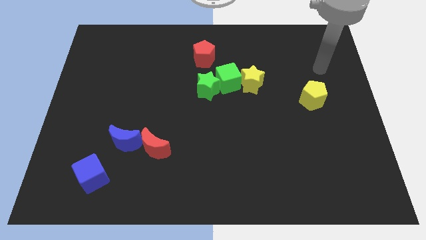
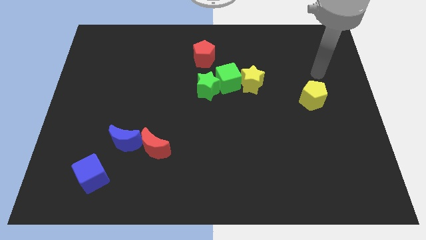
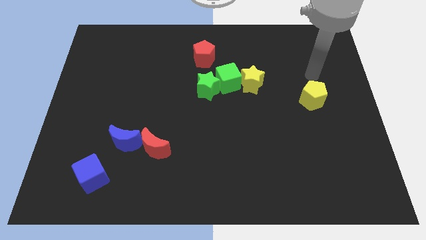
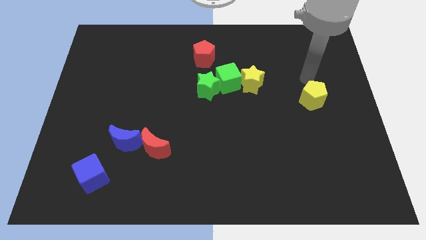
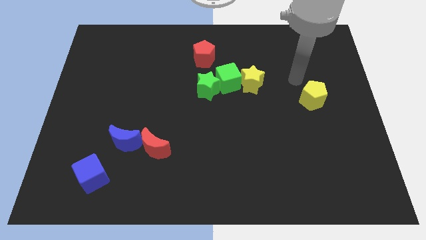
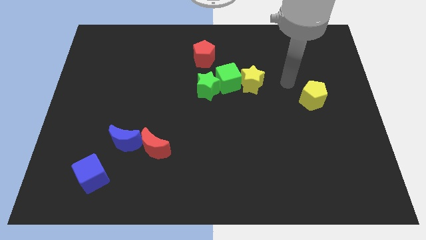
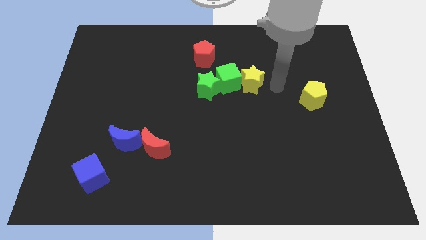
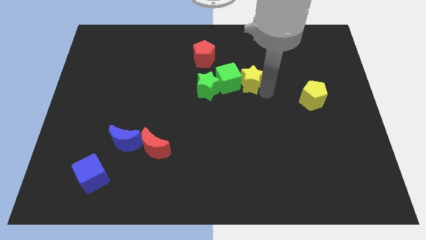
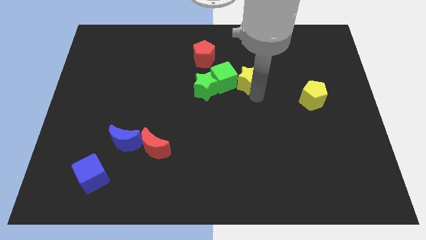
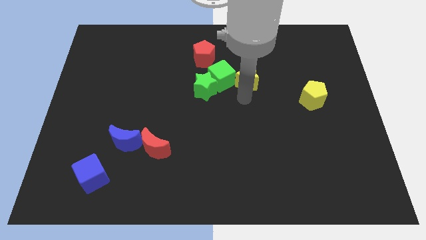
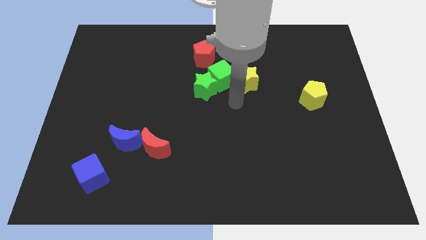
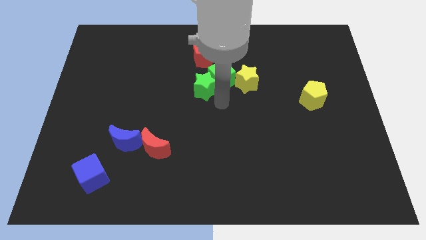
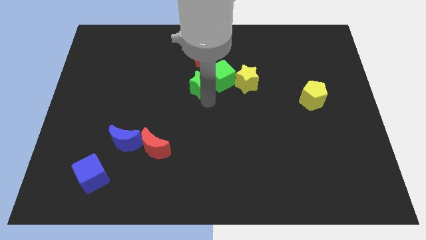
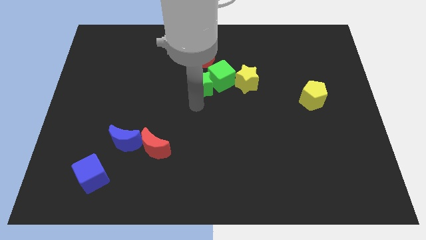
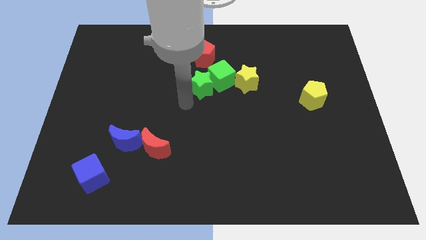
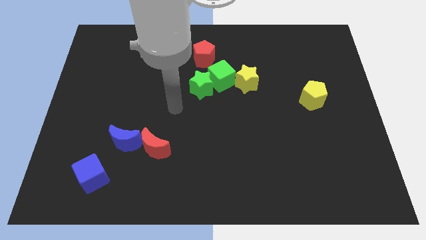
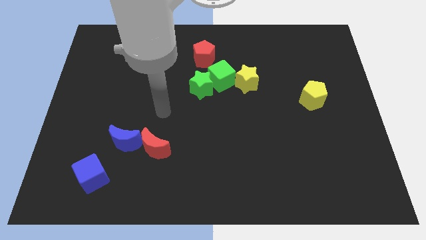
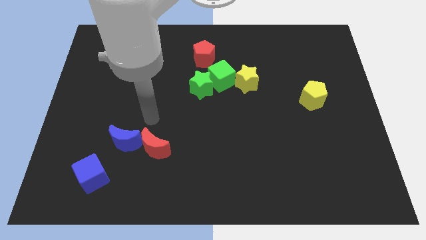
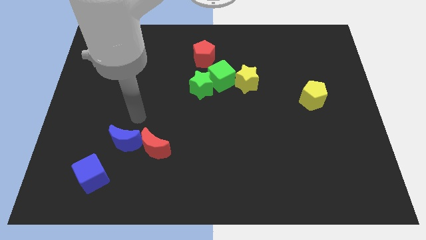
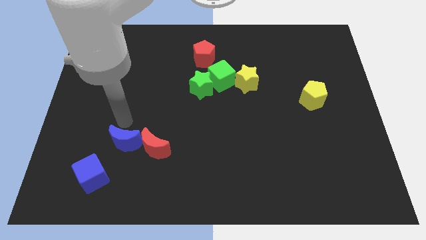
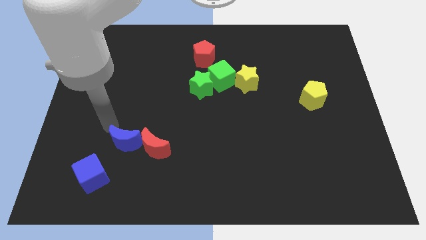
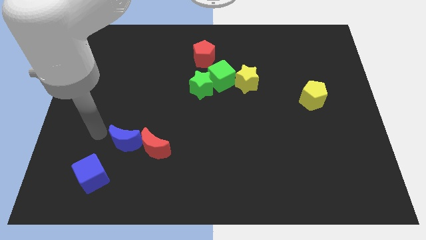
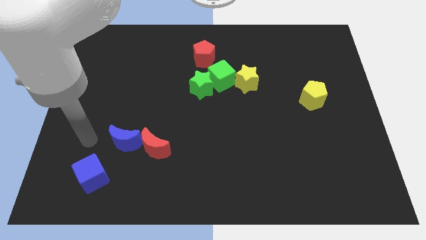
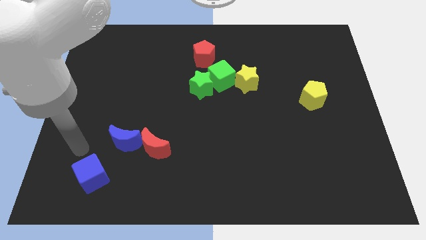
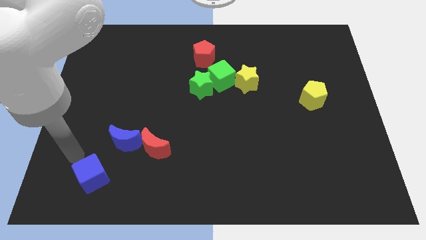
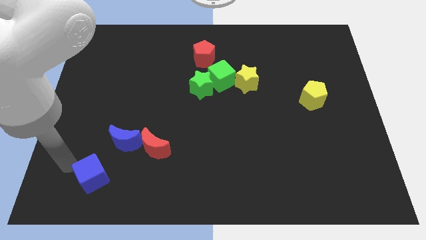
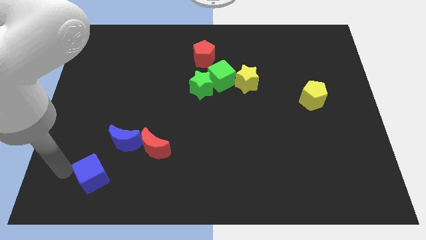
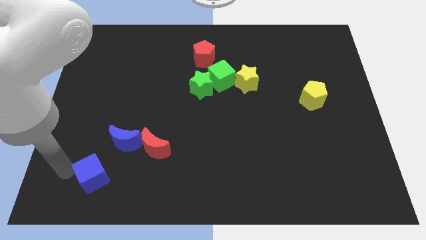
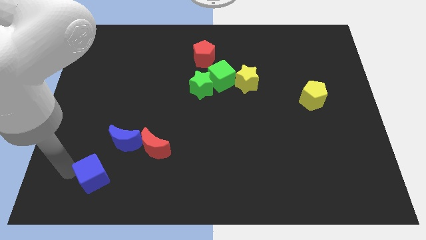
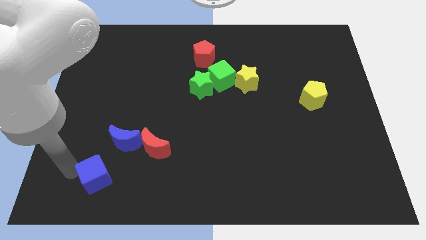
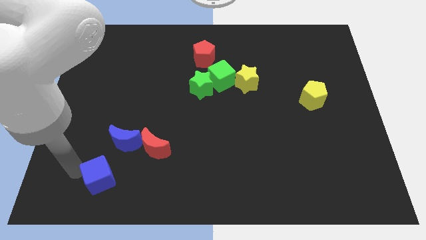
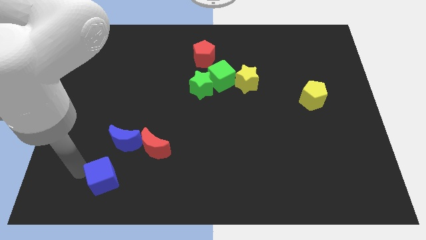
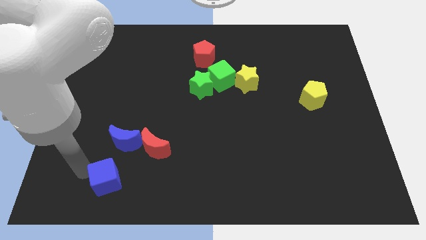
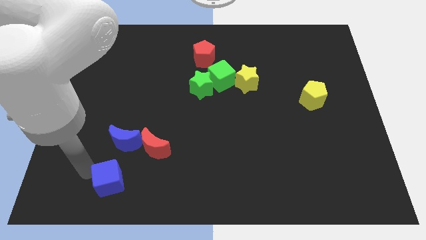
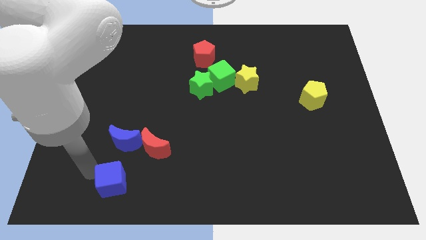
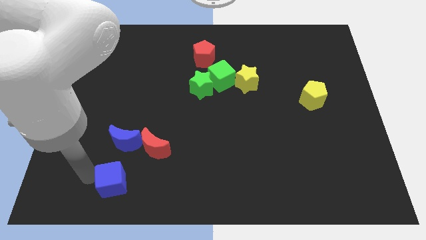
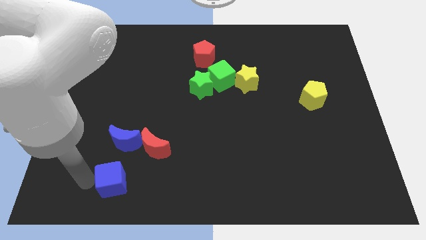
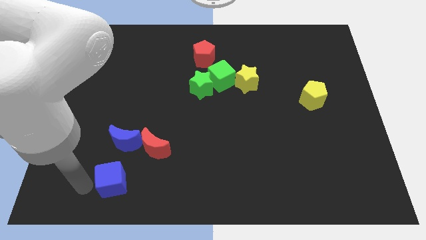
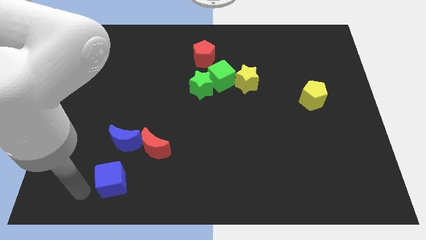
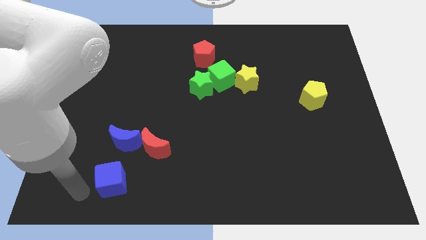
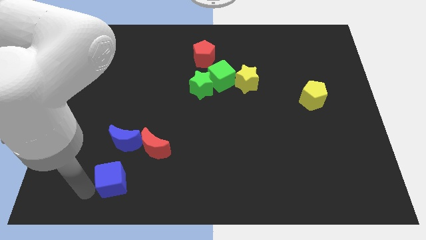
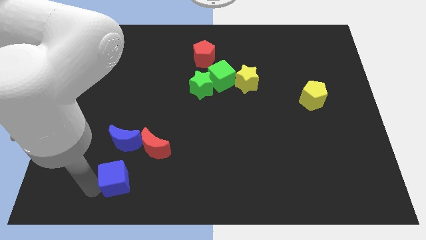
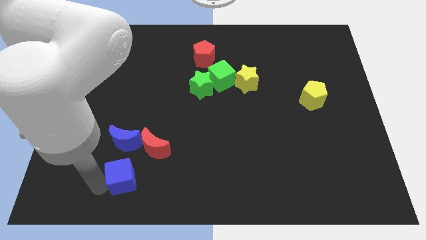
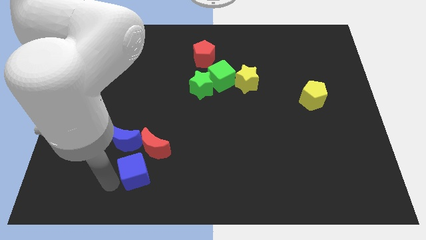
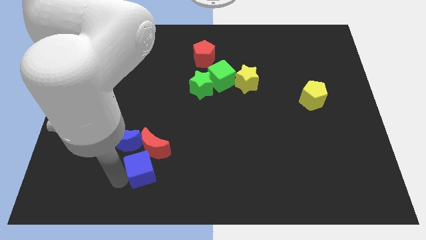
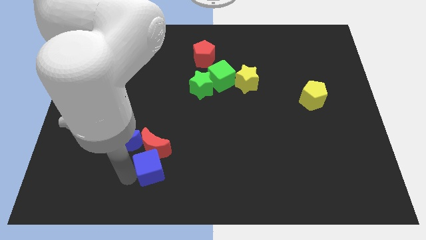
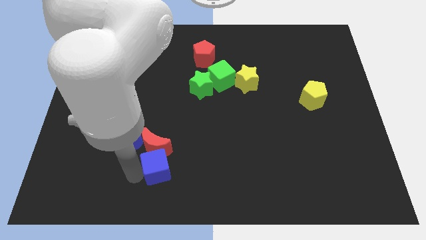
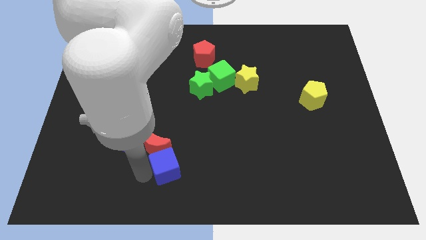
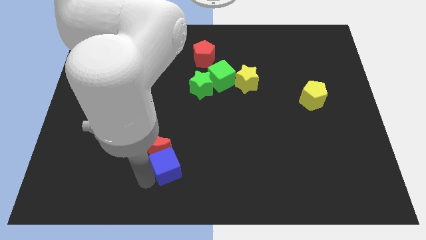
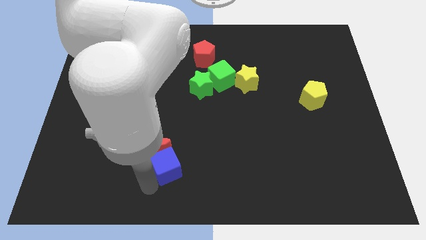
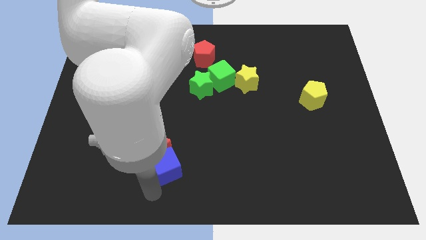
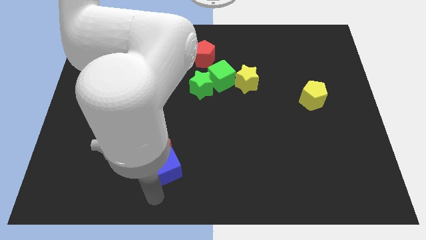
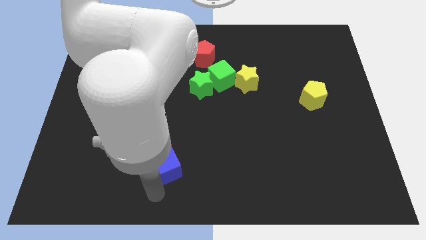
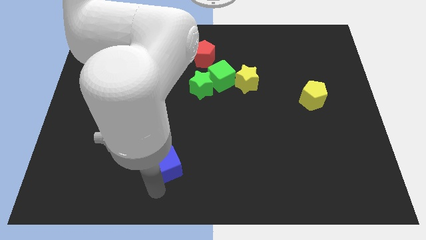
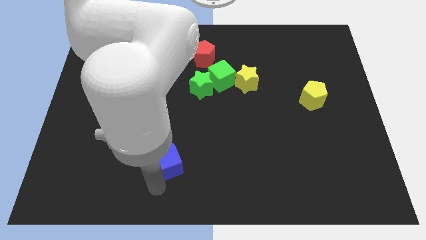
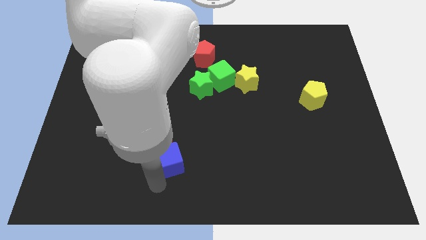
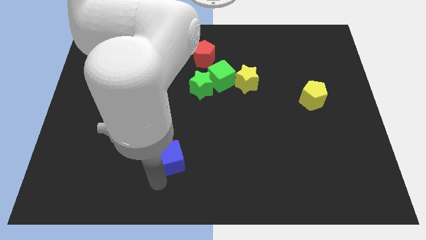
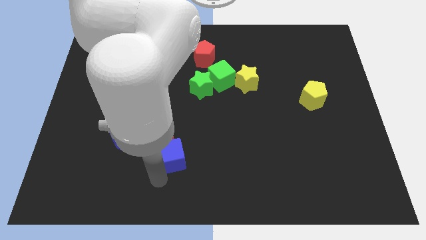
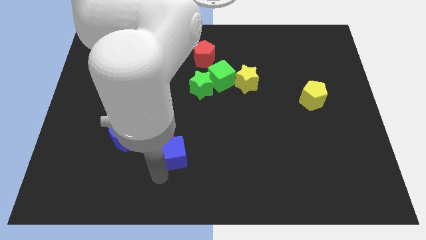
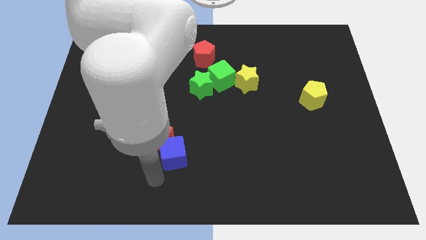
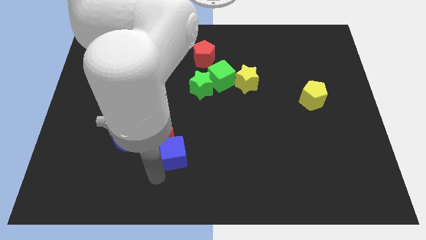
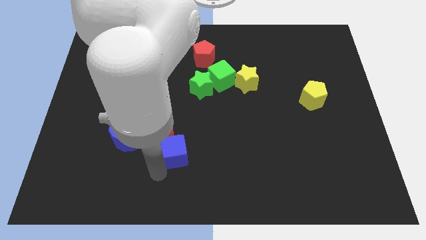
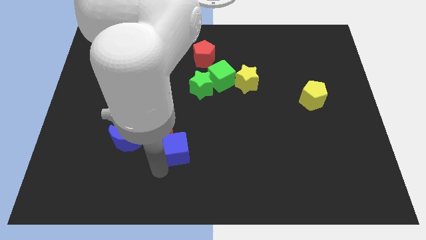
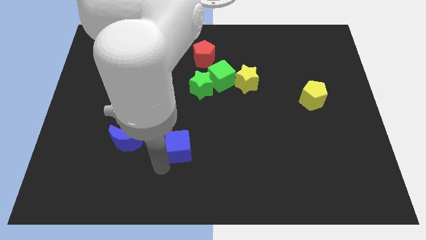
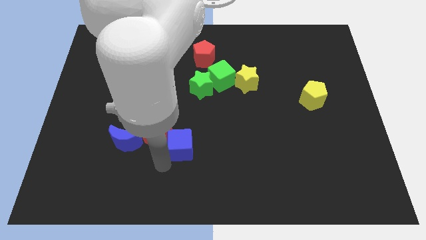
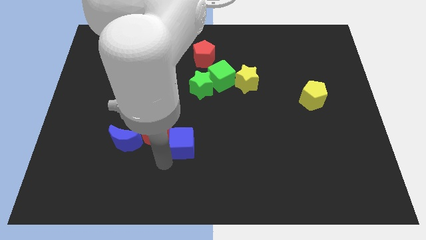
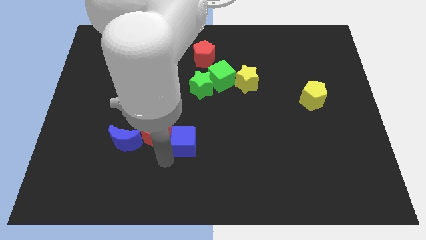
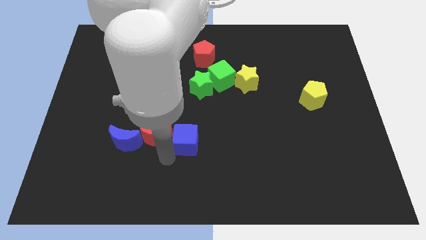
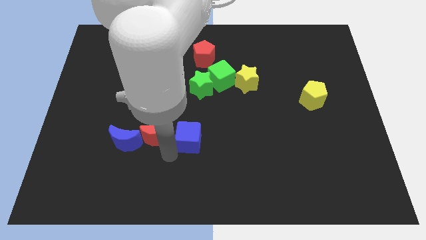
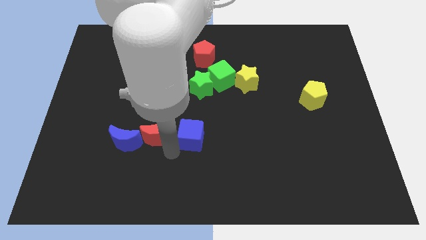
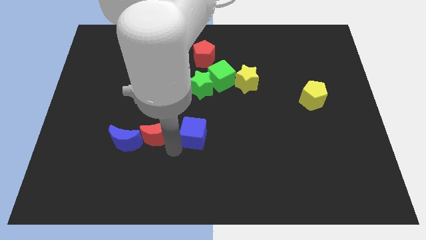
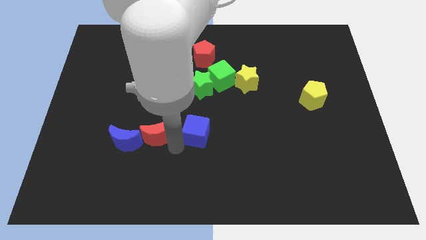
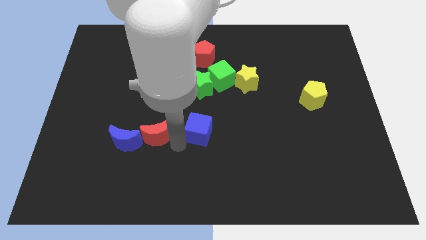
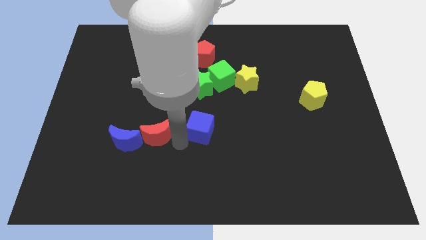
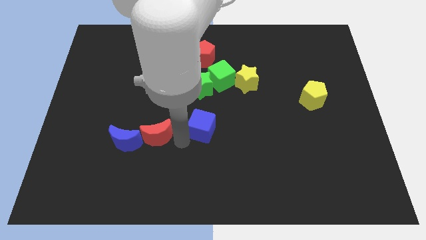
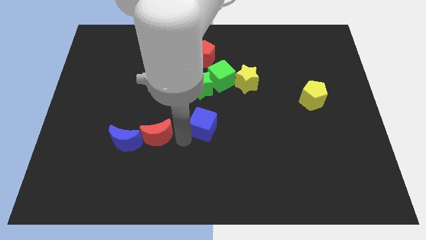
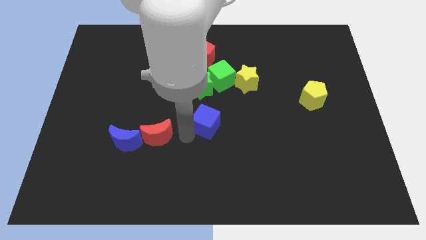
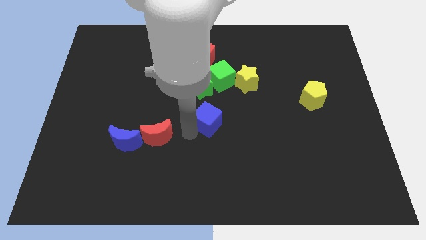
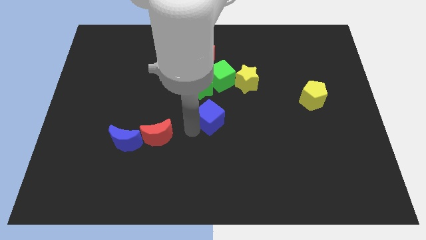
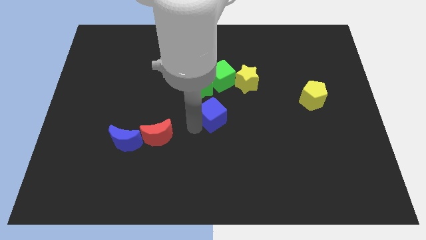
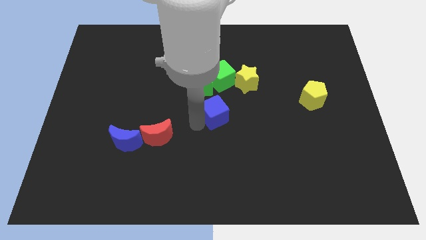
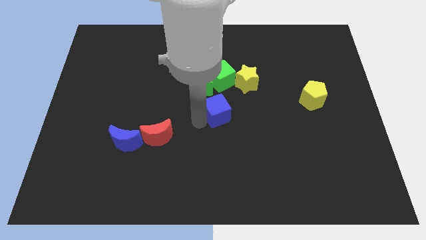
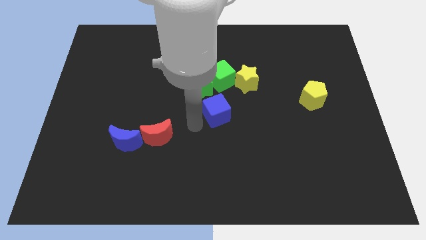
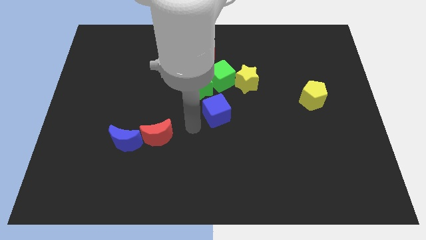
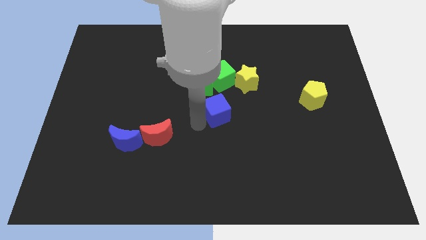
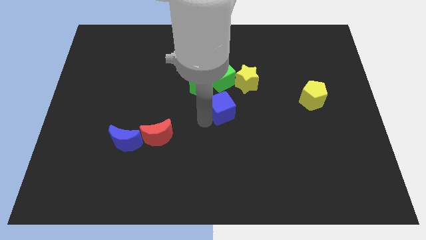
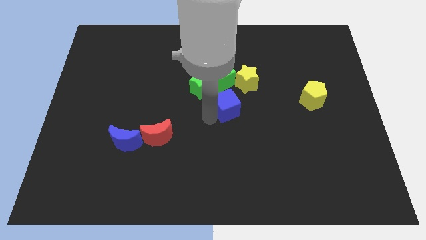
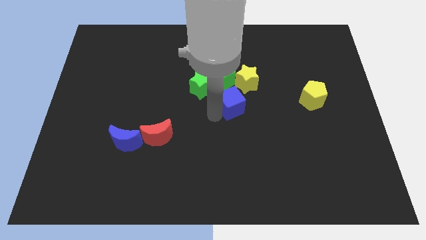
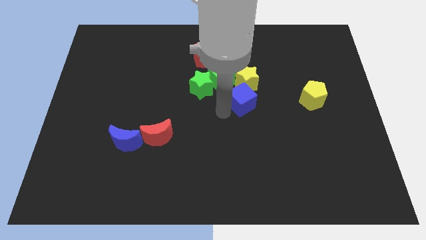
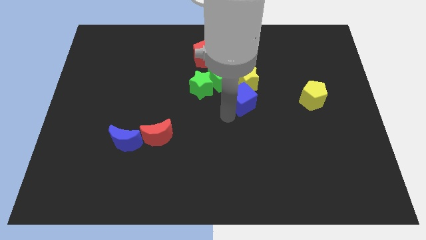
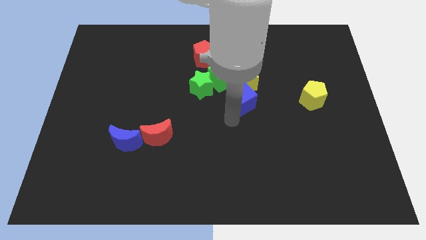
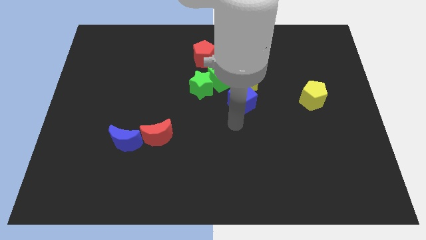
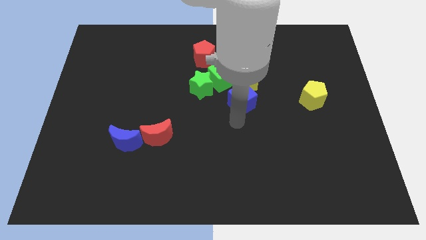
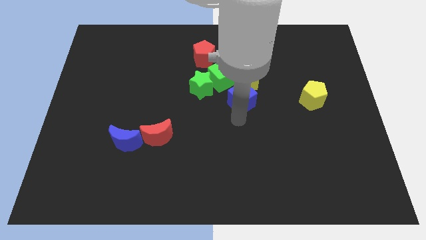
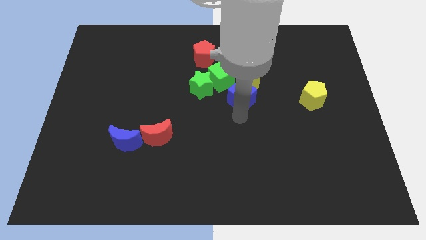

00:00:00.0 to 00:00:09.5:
put the blue cube close to the yellow star
